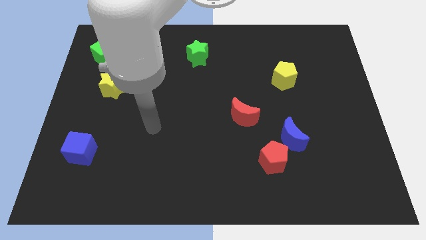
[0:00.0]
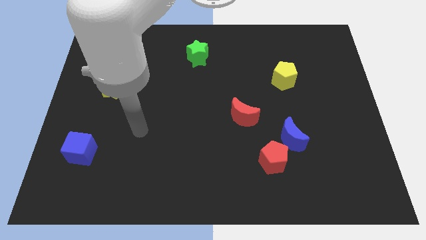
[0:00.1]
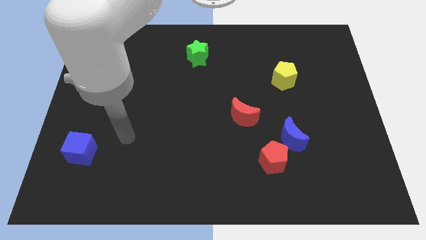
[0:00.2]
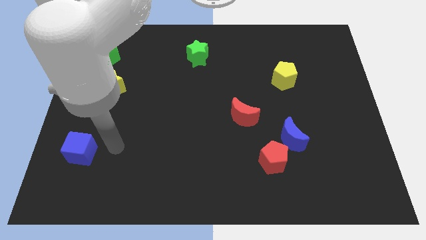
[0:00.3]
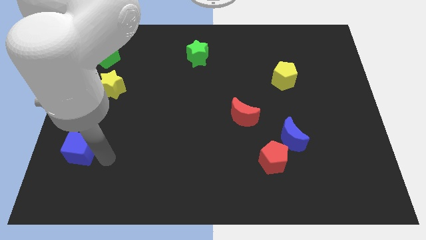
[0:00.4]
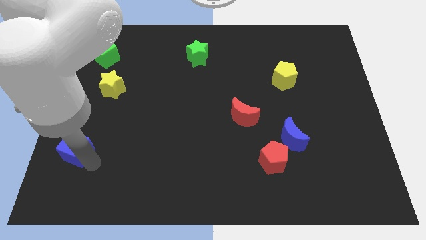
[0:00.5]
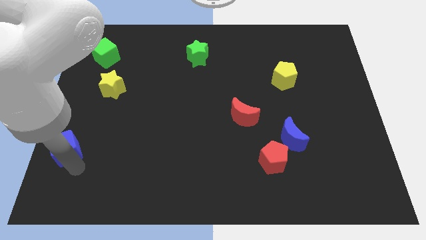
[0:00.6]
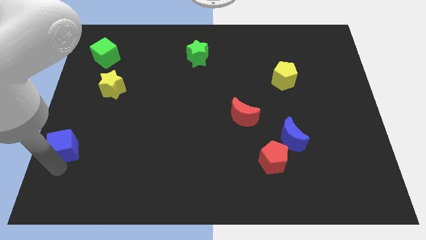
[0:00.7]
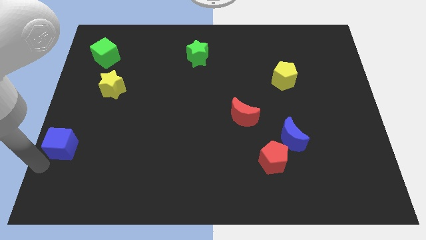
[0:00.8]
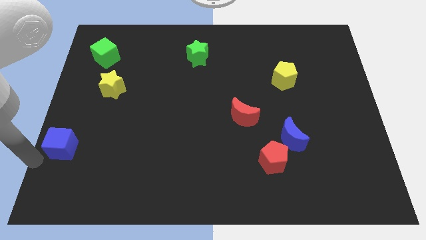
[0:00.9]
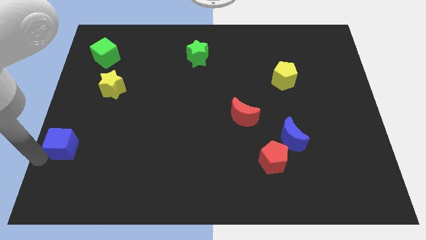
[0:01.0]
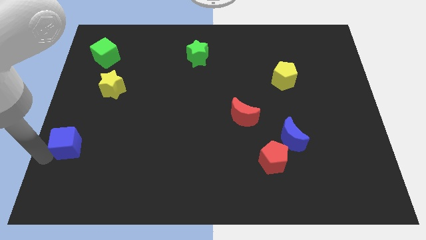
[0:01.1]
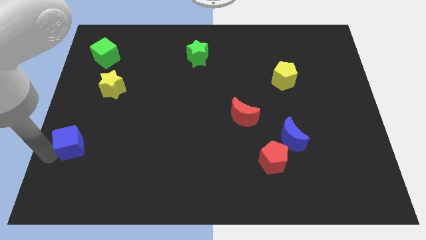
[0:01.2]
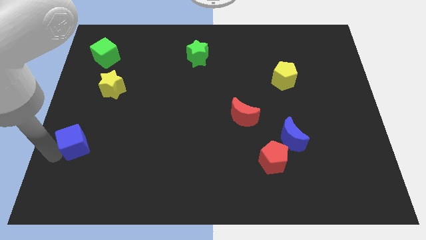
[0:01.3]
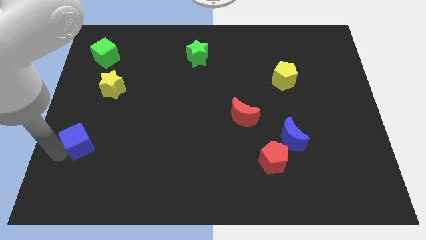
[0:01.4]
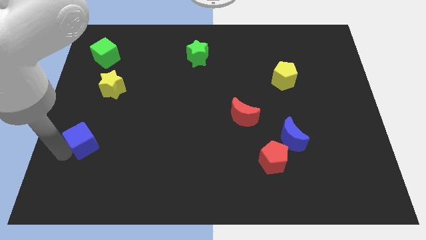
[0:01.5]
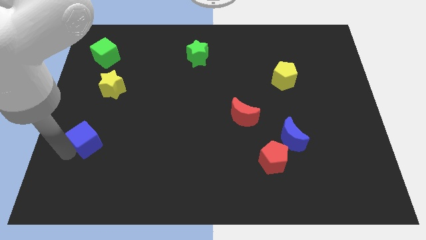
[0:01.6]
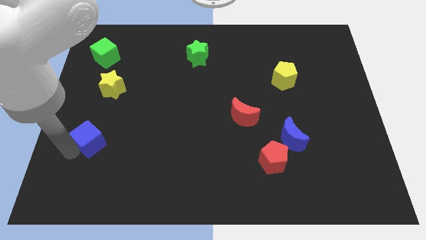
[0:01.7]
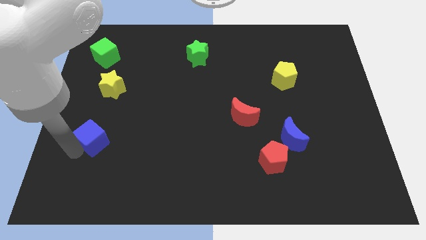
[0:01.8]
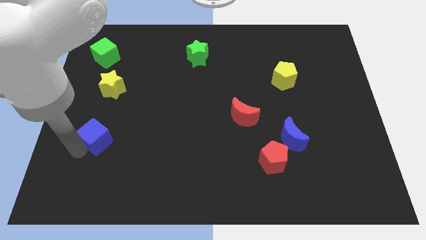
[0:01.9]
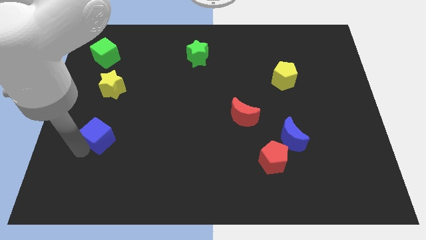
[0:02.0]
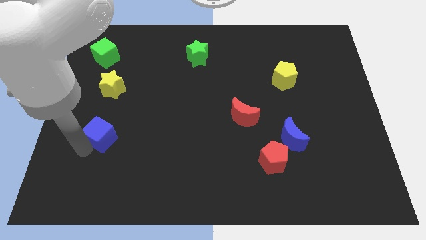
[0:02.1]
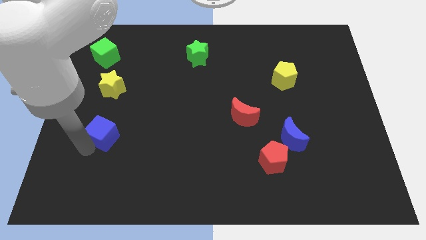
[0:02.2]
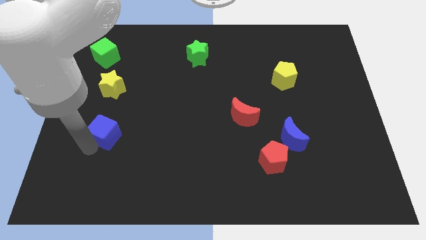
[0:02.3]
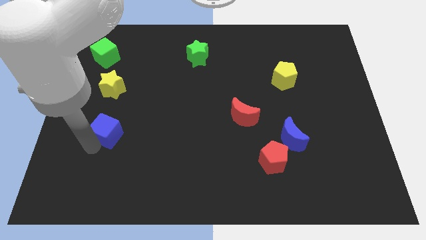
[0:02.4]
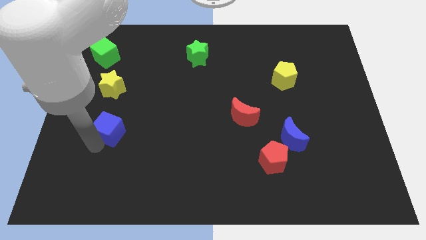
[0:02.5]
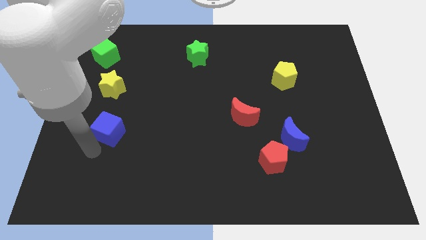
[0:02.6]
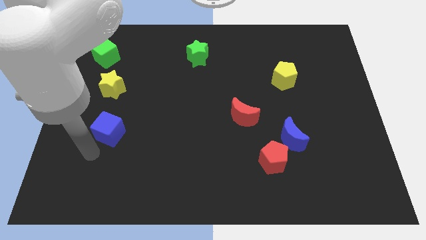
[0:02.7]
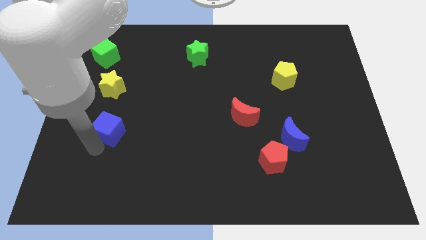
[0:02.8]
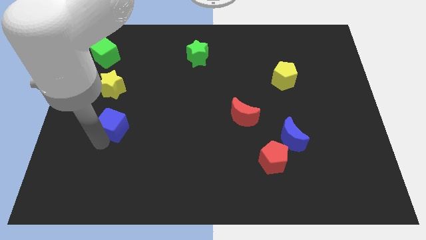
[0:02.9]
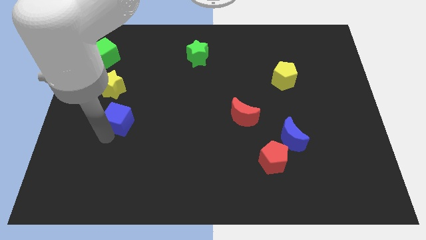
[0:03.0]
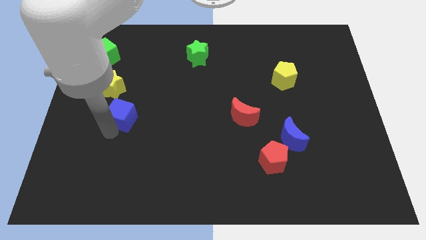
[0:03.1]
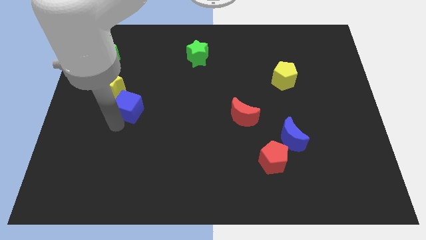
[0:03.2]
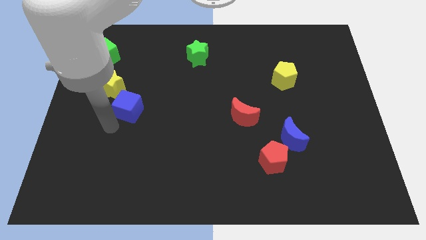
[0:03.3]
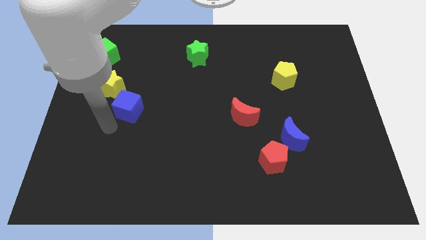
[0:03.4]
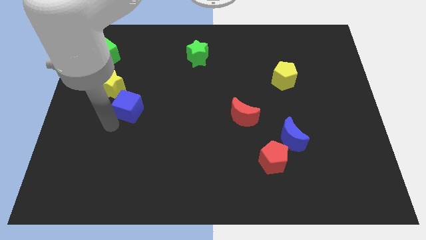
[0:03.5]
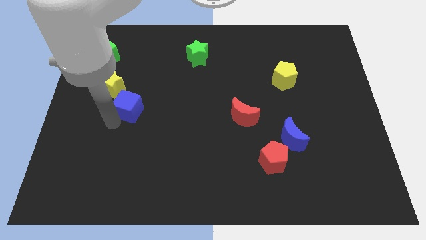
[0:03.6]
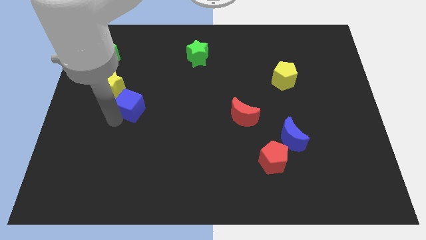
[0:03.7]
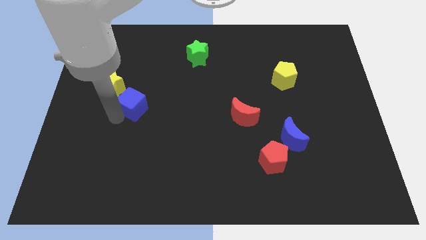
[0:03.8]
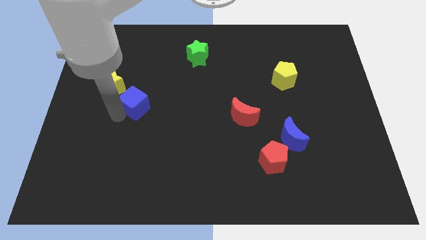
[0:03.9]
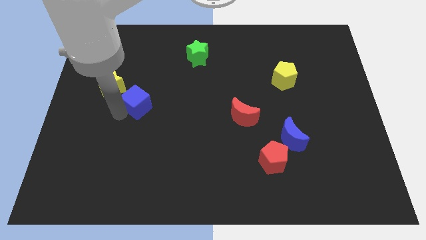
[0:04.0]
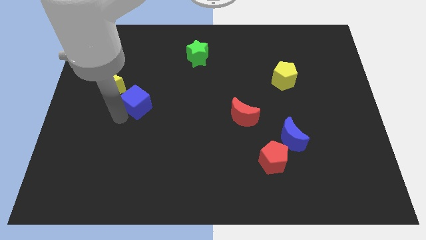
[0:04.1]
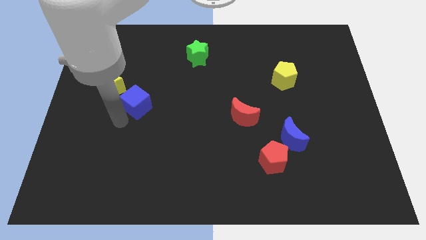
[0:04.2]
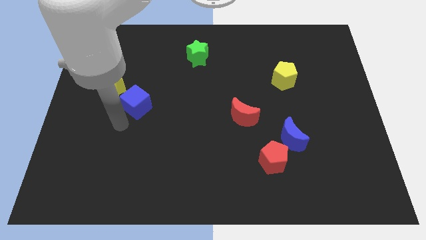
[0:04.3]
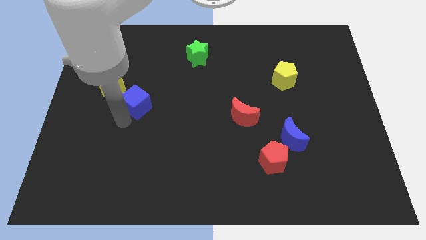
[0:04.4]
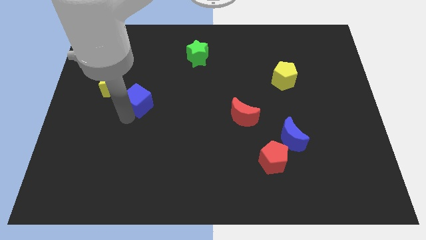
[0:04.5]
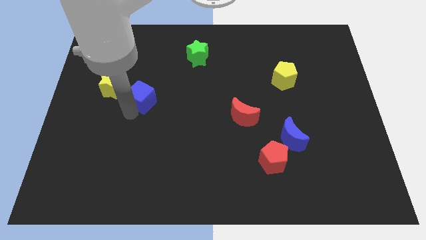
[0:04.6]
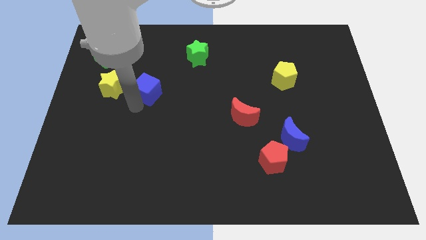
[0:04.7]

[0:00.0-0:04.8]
slide the blue cube up and to the right

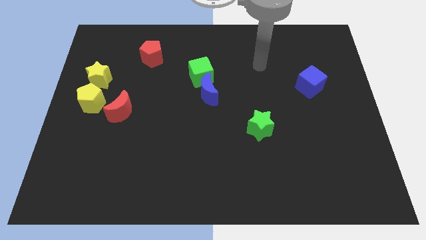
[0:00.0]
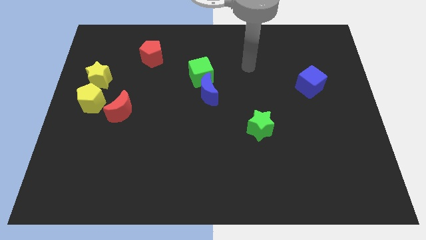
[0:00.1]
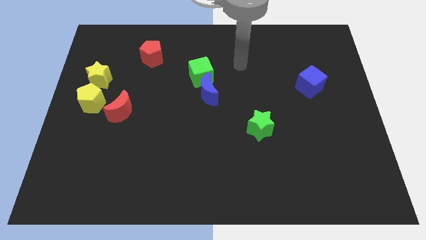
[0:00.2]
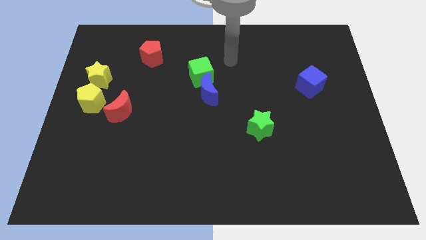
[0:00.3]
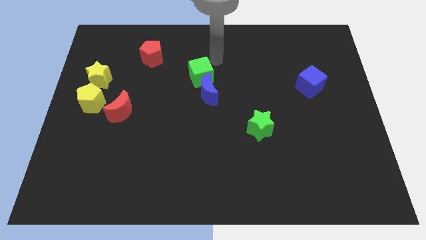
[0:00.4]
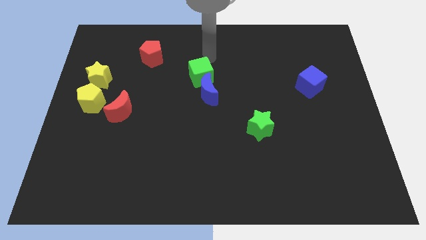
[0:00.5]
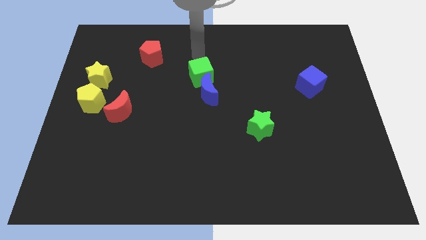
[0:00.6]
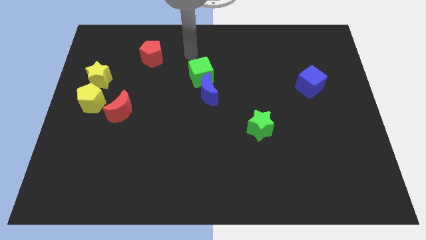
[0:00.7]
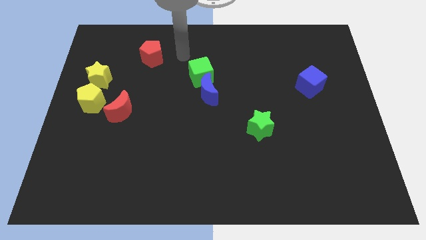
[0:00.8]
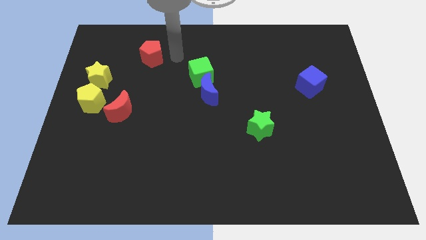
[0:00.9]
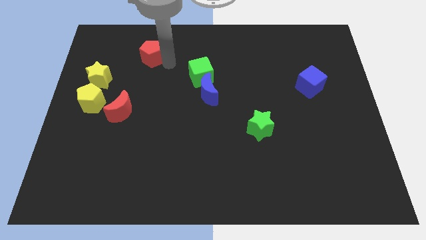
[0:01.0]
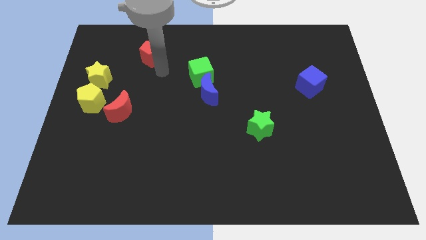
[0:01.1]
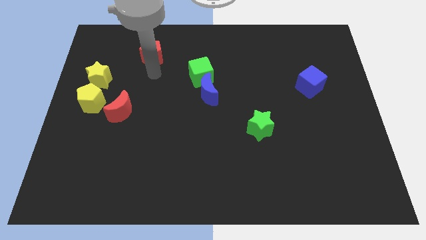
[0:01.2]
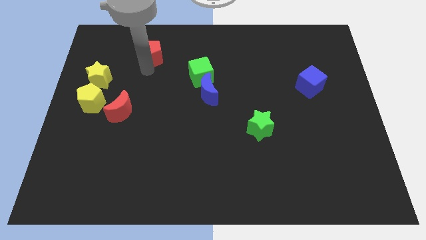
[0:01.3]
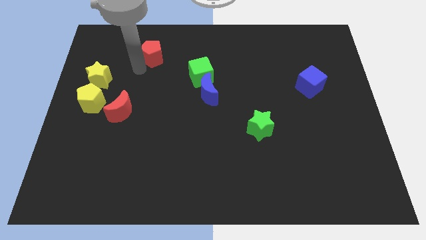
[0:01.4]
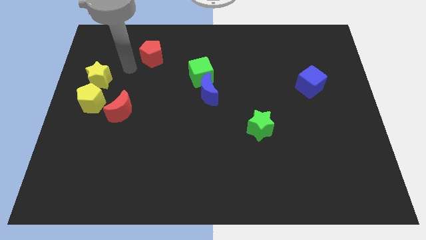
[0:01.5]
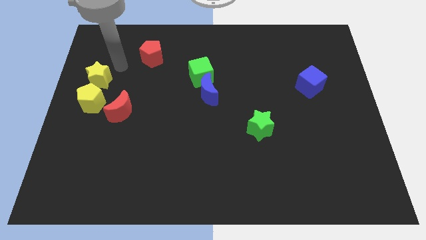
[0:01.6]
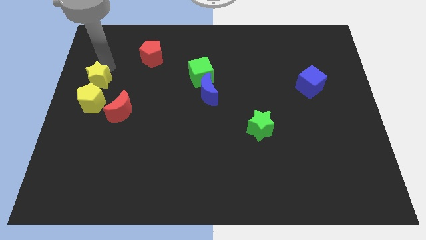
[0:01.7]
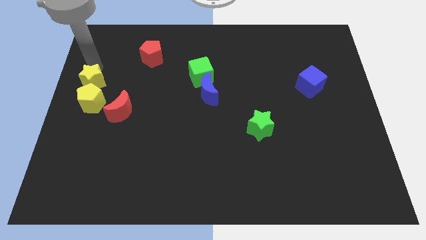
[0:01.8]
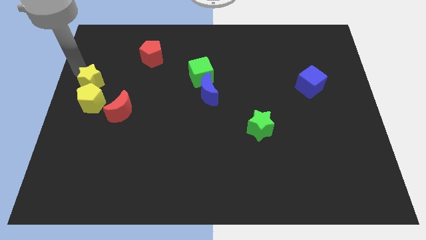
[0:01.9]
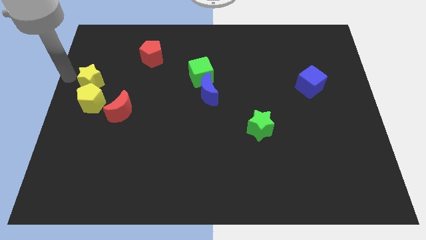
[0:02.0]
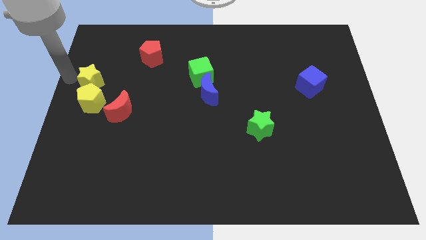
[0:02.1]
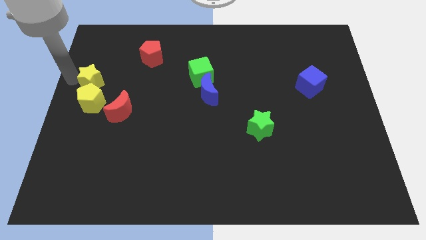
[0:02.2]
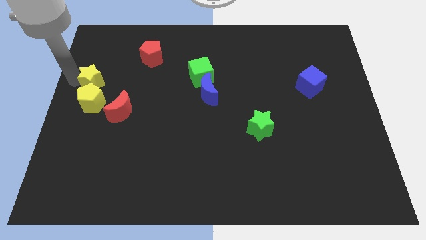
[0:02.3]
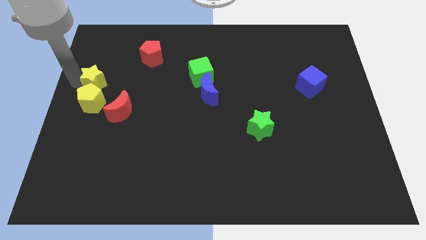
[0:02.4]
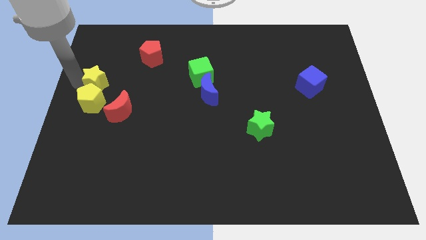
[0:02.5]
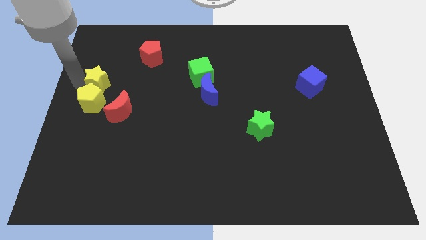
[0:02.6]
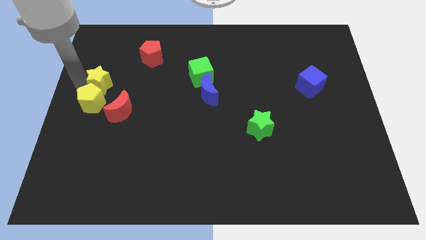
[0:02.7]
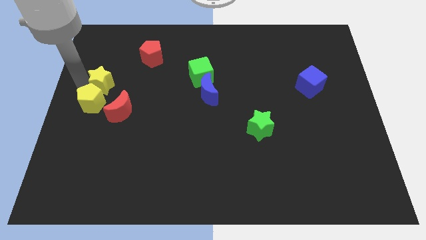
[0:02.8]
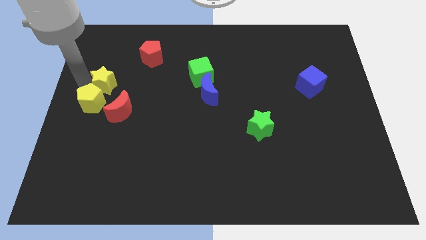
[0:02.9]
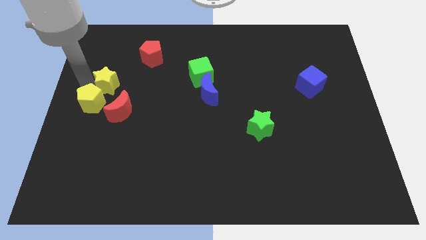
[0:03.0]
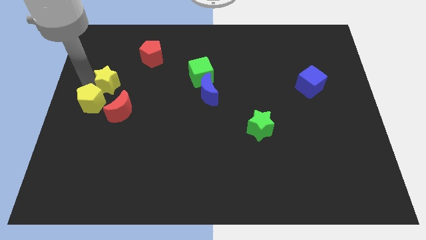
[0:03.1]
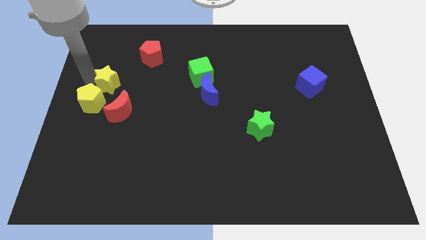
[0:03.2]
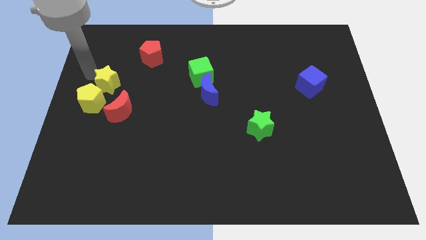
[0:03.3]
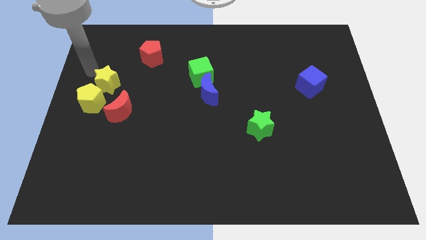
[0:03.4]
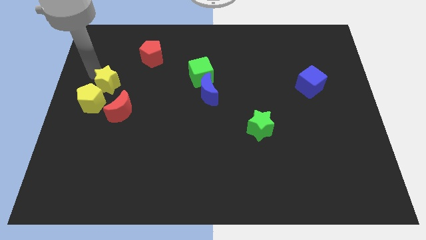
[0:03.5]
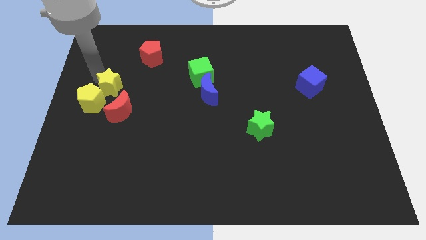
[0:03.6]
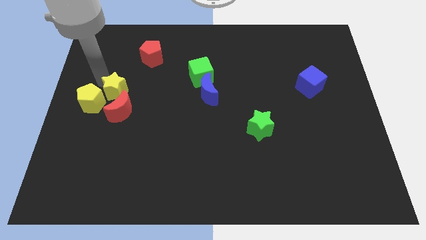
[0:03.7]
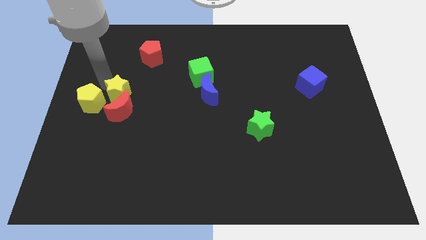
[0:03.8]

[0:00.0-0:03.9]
push the yellow star a little down and then to the right
